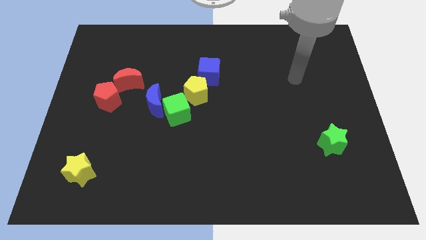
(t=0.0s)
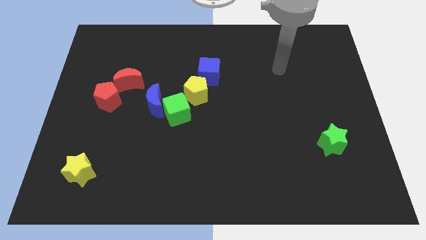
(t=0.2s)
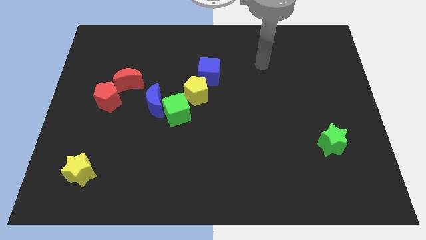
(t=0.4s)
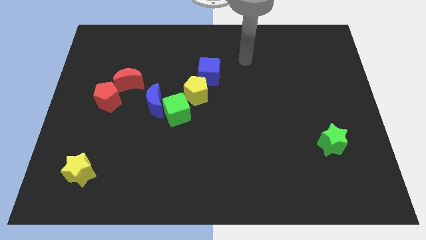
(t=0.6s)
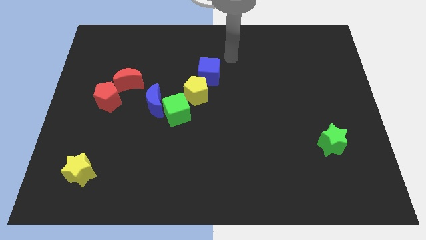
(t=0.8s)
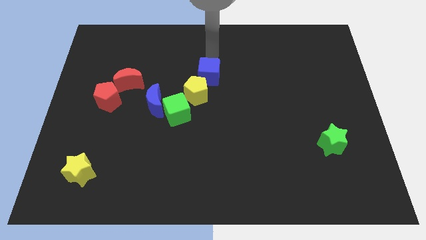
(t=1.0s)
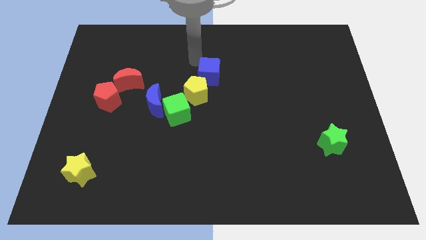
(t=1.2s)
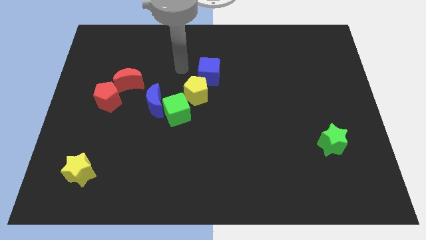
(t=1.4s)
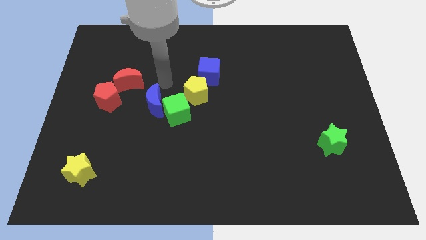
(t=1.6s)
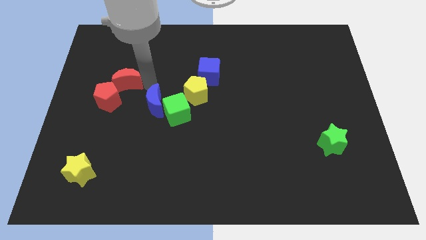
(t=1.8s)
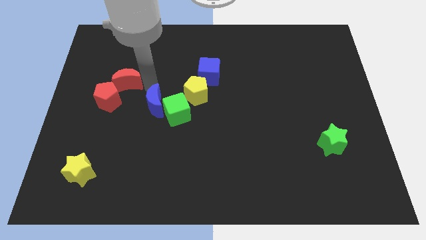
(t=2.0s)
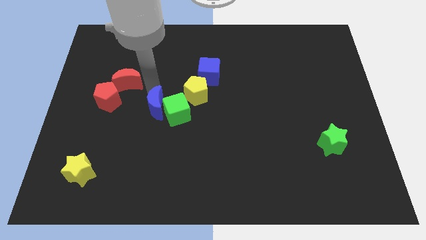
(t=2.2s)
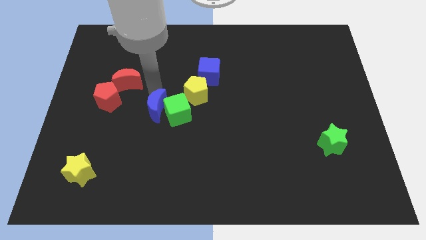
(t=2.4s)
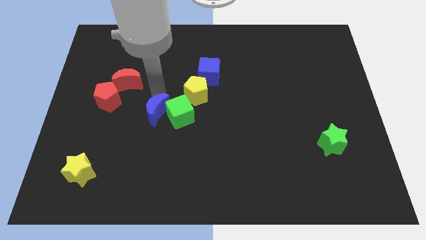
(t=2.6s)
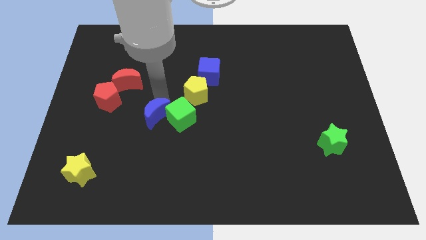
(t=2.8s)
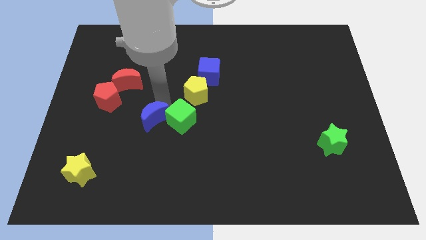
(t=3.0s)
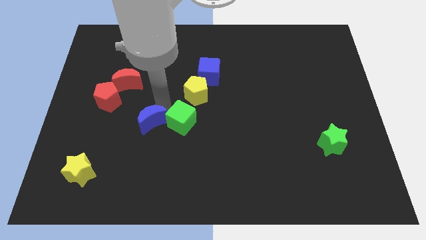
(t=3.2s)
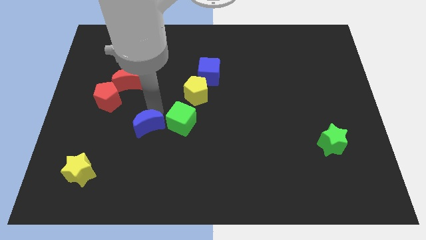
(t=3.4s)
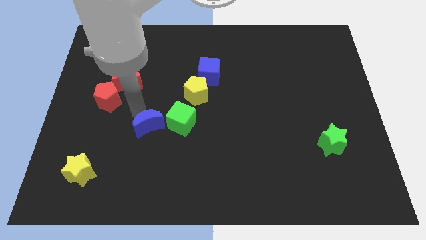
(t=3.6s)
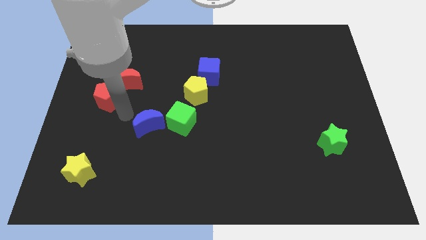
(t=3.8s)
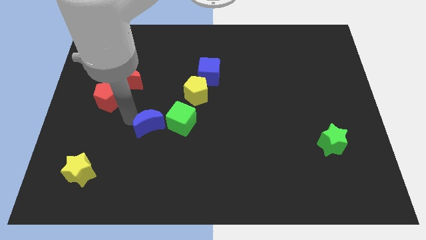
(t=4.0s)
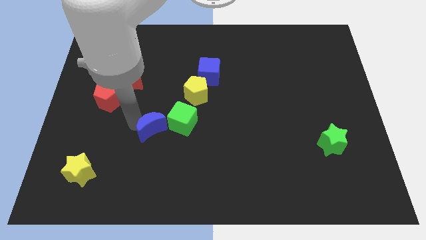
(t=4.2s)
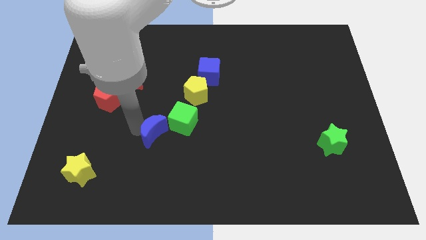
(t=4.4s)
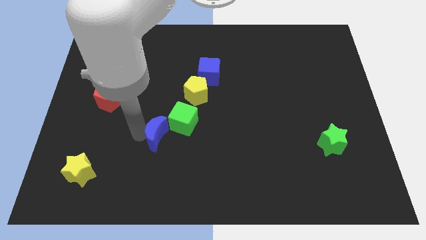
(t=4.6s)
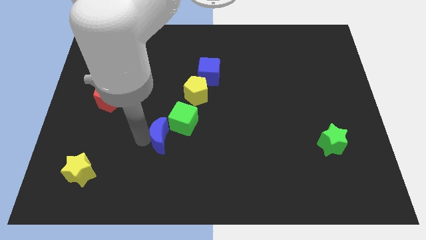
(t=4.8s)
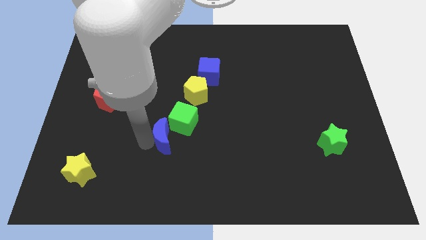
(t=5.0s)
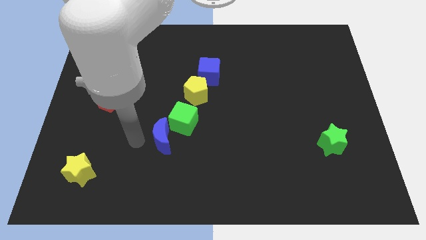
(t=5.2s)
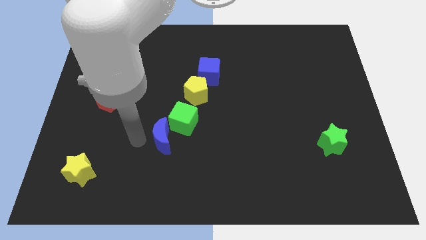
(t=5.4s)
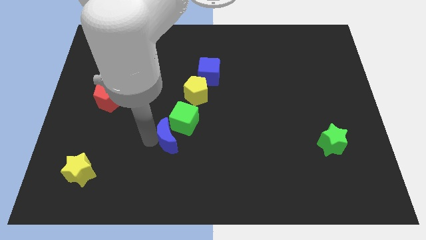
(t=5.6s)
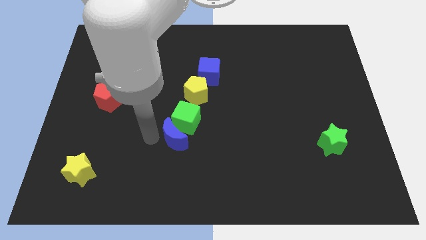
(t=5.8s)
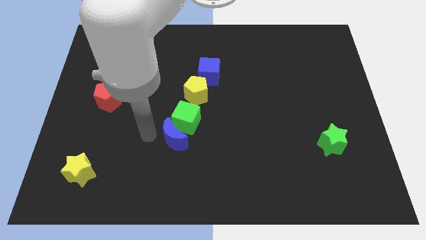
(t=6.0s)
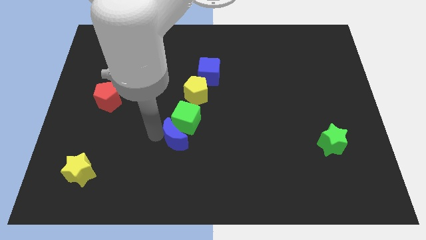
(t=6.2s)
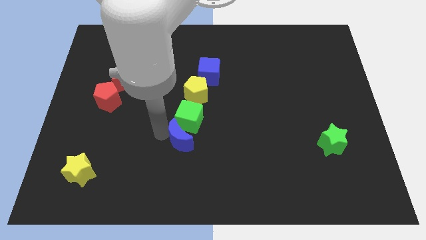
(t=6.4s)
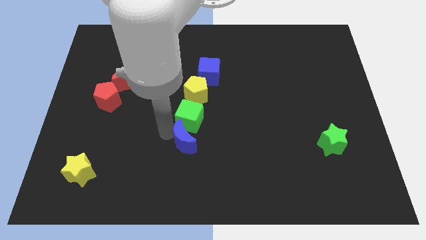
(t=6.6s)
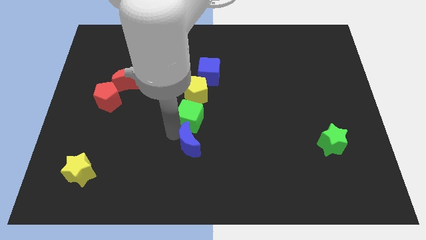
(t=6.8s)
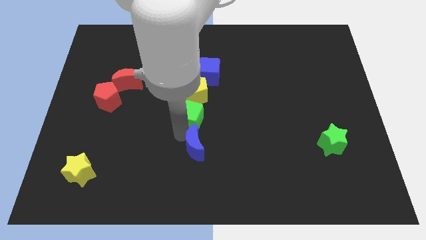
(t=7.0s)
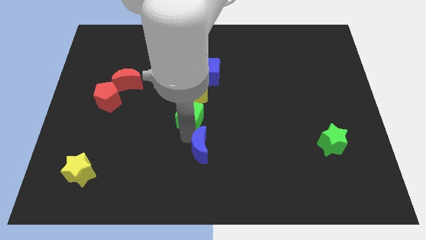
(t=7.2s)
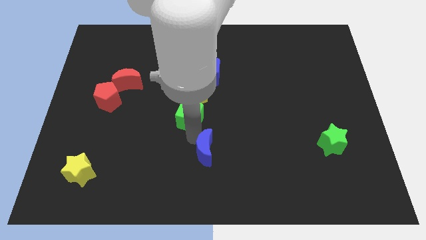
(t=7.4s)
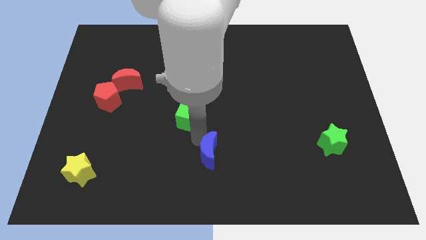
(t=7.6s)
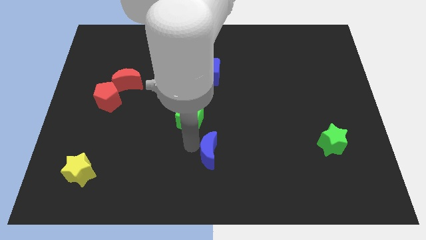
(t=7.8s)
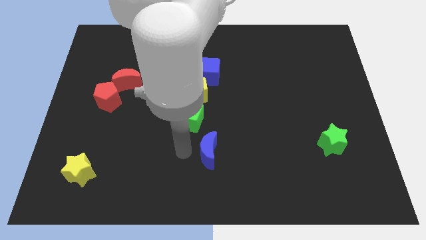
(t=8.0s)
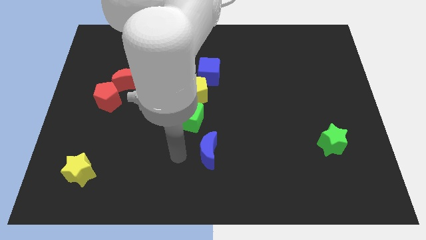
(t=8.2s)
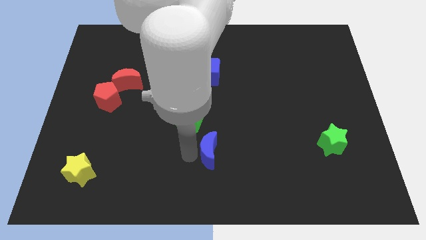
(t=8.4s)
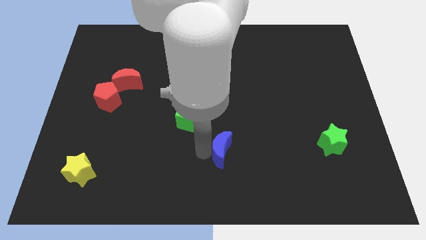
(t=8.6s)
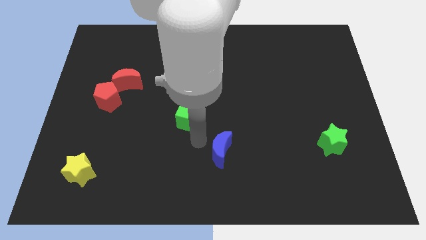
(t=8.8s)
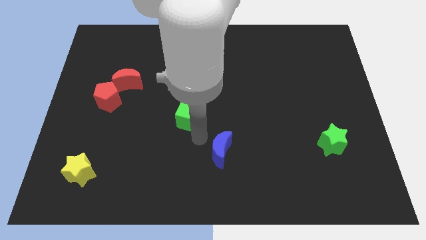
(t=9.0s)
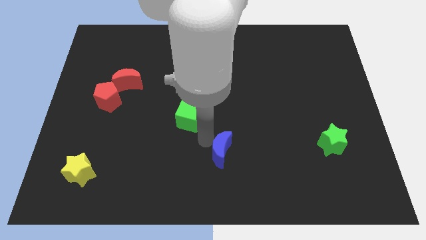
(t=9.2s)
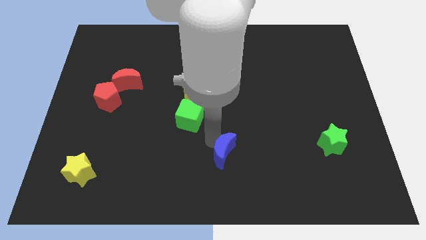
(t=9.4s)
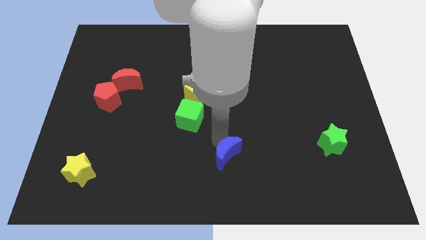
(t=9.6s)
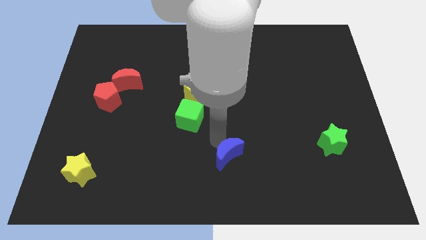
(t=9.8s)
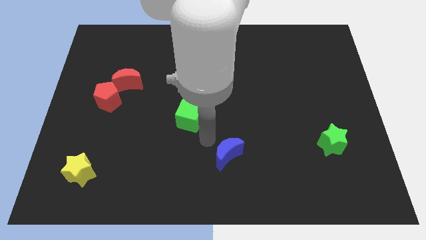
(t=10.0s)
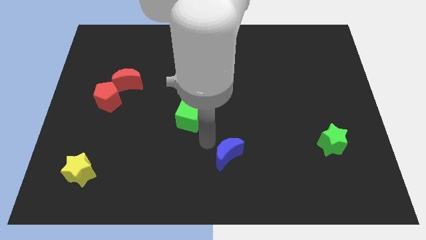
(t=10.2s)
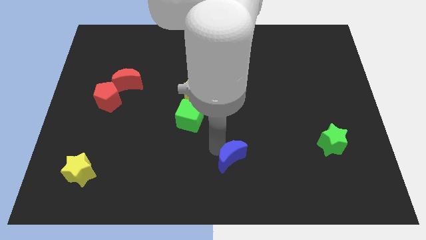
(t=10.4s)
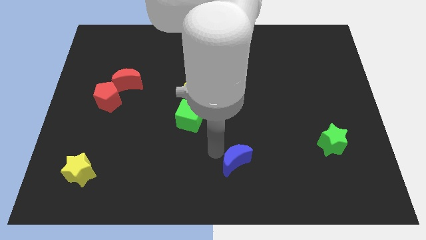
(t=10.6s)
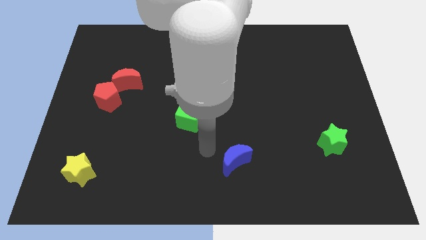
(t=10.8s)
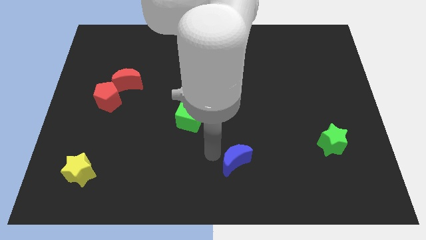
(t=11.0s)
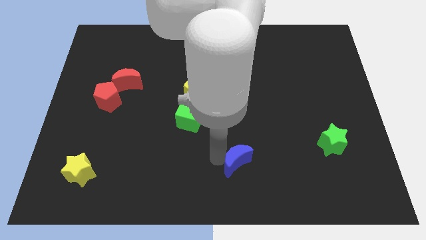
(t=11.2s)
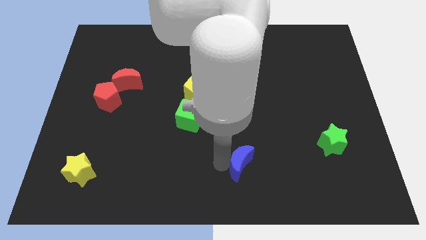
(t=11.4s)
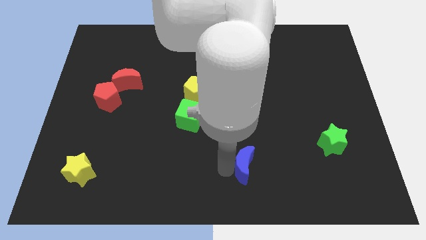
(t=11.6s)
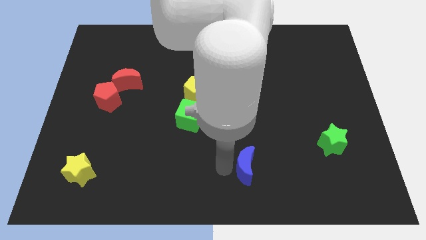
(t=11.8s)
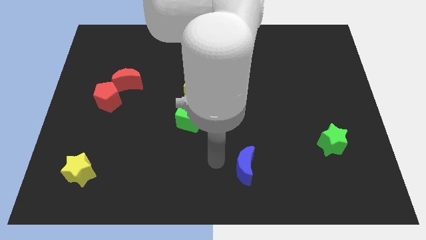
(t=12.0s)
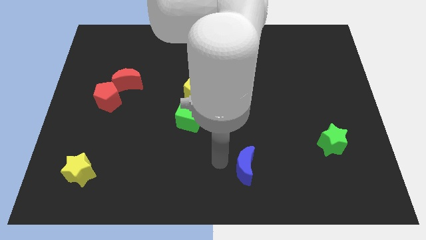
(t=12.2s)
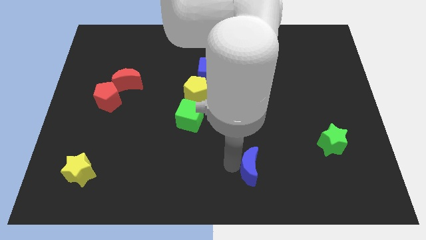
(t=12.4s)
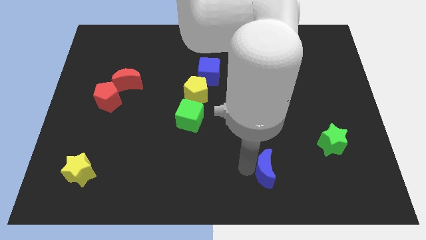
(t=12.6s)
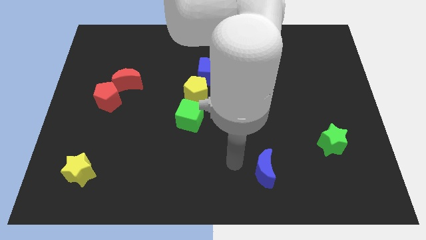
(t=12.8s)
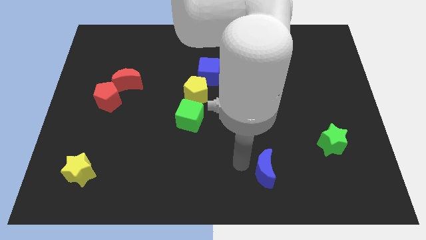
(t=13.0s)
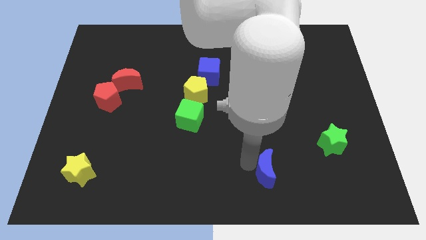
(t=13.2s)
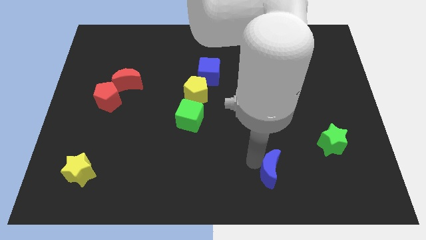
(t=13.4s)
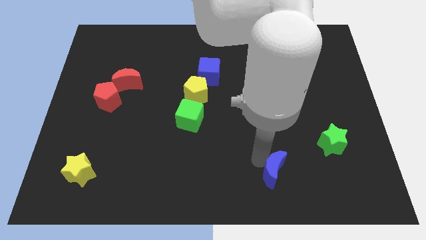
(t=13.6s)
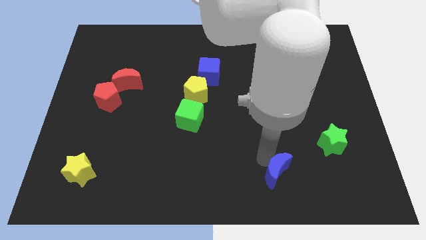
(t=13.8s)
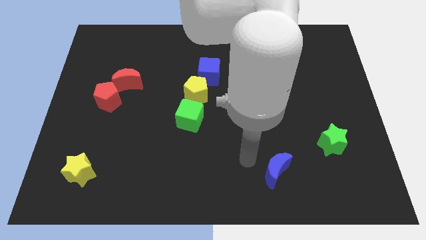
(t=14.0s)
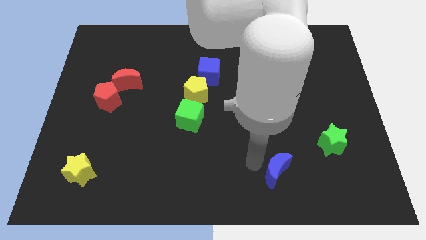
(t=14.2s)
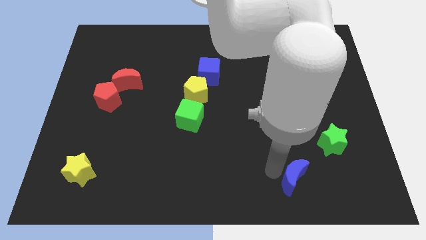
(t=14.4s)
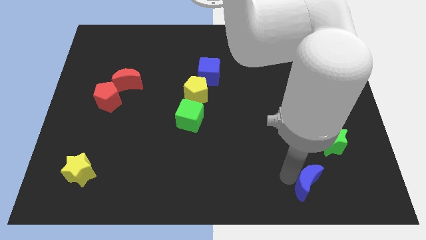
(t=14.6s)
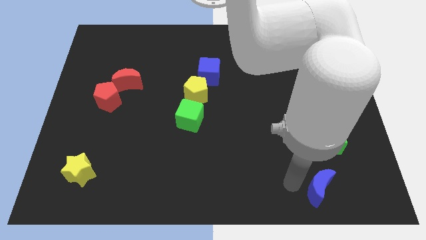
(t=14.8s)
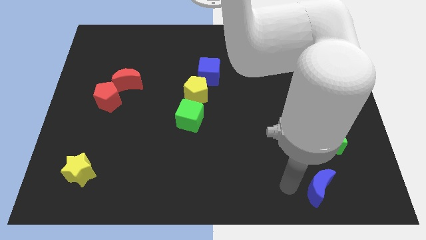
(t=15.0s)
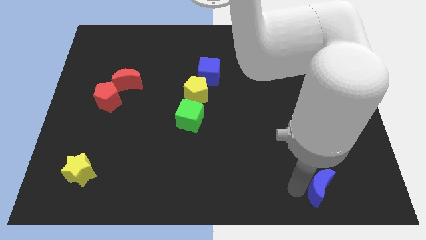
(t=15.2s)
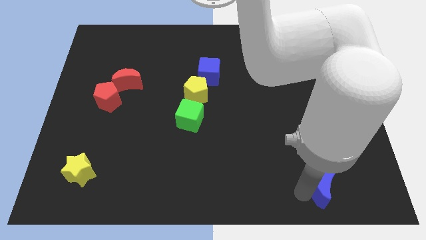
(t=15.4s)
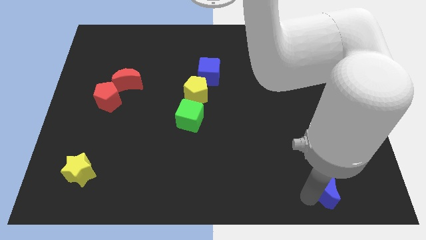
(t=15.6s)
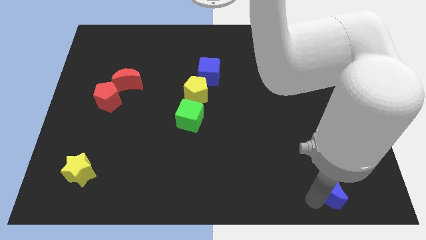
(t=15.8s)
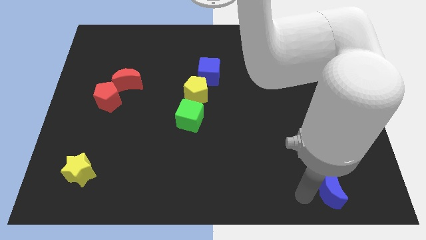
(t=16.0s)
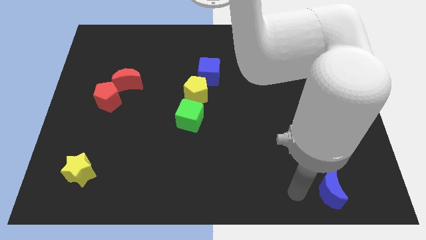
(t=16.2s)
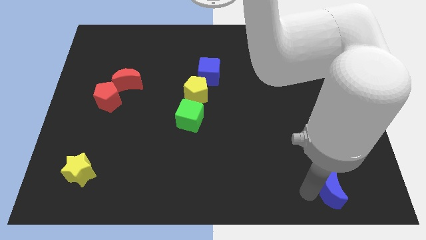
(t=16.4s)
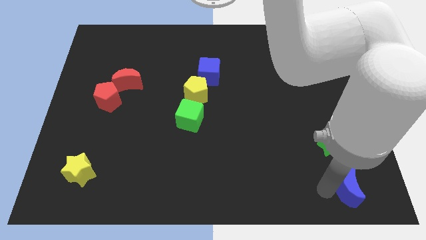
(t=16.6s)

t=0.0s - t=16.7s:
slide the blue moon to the lower right corner
